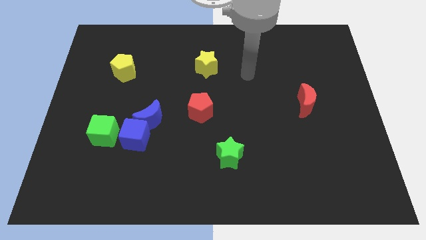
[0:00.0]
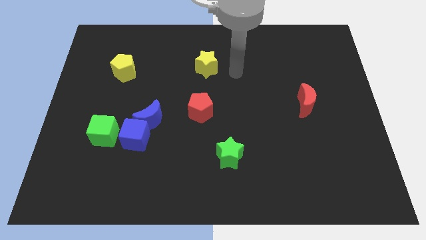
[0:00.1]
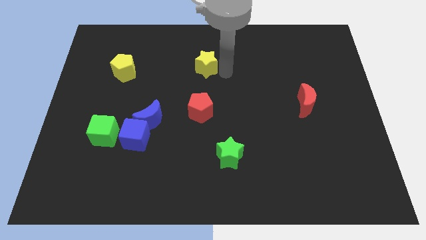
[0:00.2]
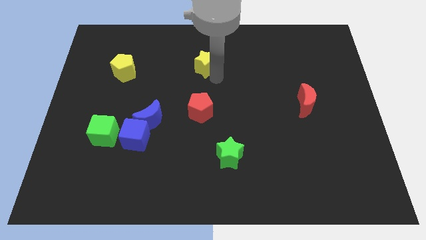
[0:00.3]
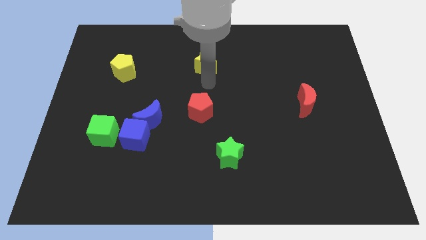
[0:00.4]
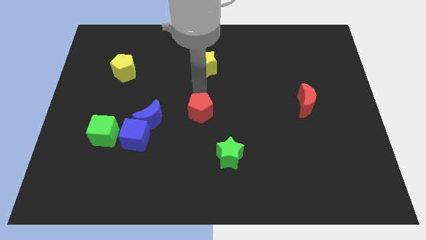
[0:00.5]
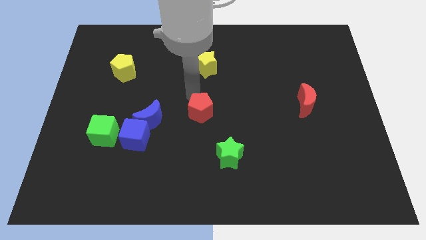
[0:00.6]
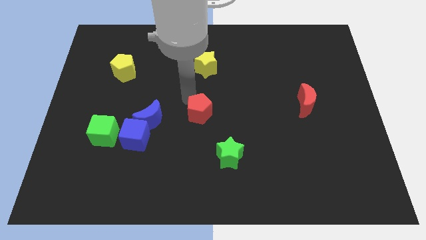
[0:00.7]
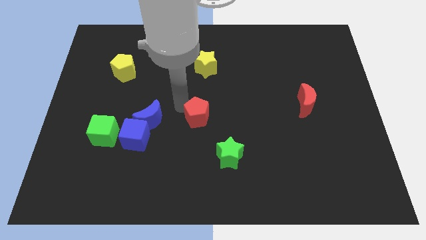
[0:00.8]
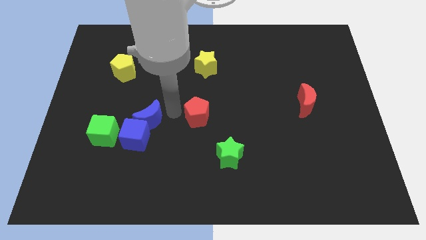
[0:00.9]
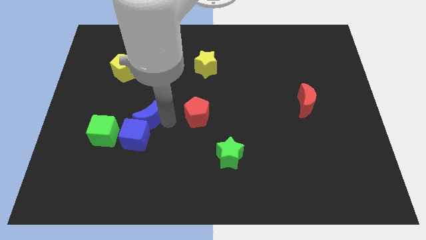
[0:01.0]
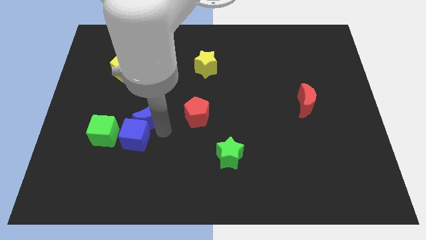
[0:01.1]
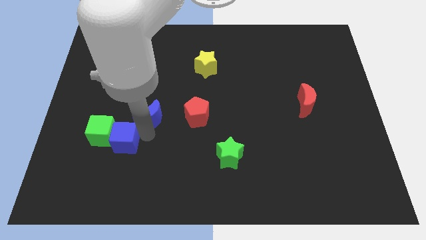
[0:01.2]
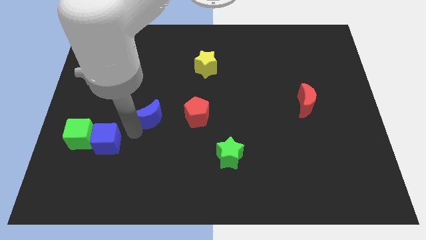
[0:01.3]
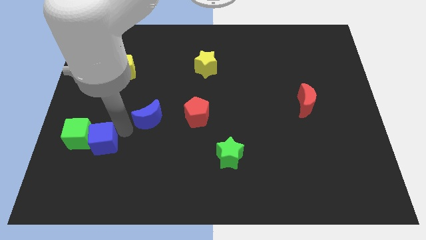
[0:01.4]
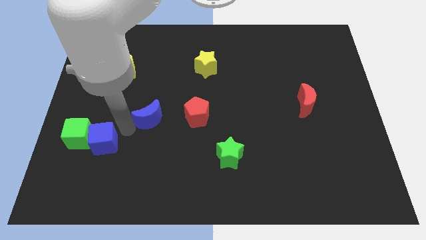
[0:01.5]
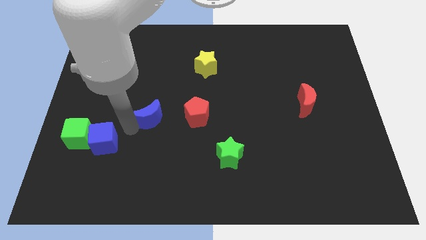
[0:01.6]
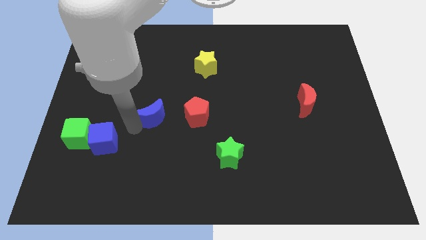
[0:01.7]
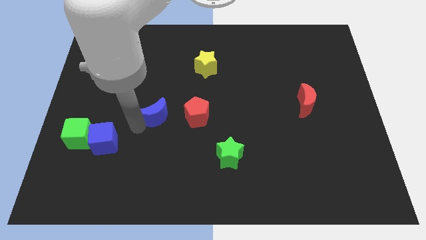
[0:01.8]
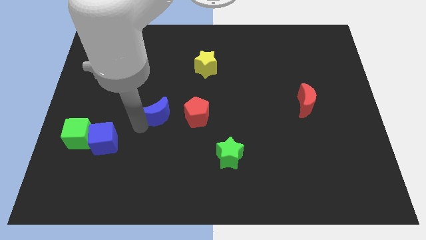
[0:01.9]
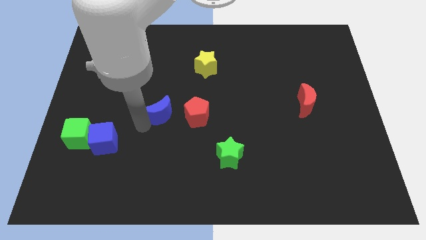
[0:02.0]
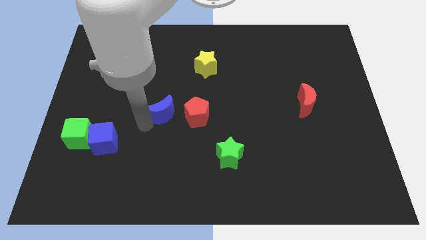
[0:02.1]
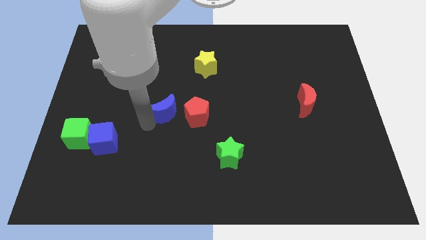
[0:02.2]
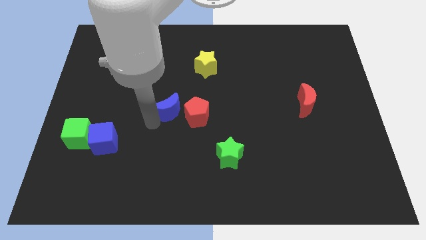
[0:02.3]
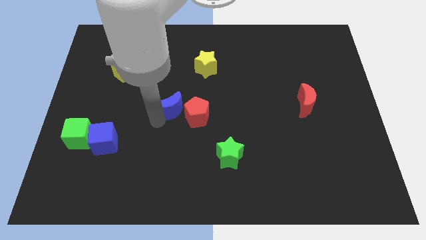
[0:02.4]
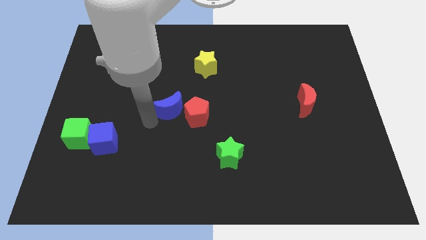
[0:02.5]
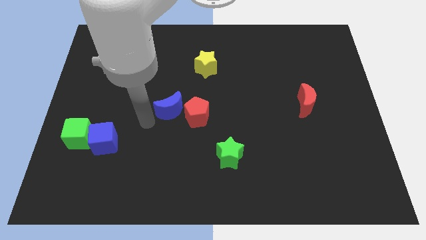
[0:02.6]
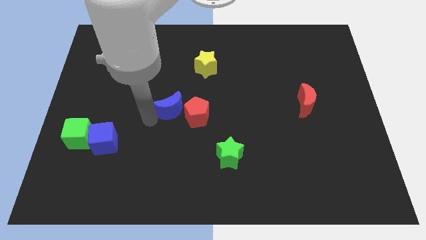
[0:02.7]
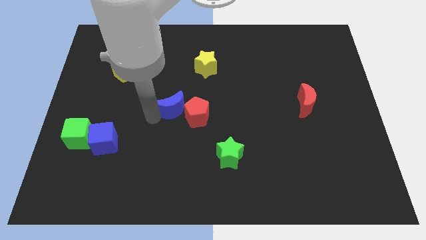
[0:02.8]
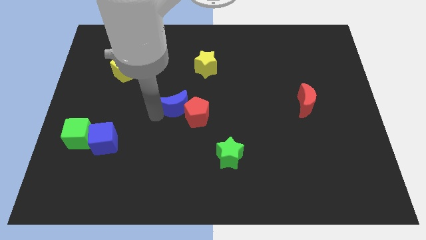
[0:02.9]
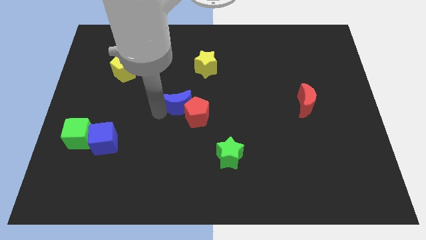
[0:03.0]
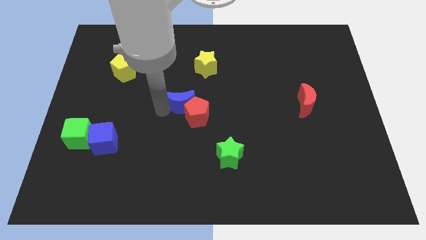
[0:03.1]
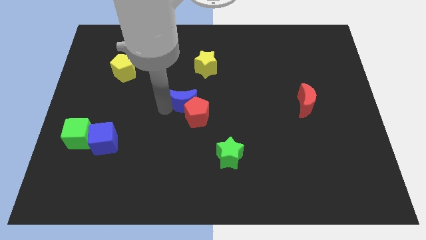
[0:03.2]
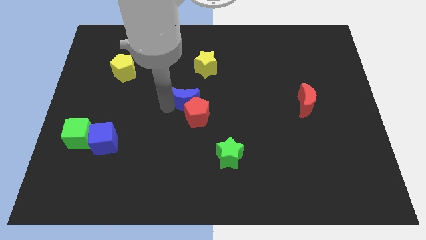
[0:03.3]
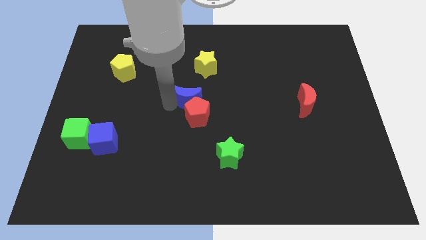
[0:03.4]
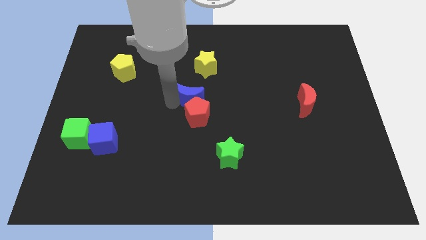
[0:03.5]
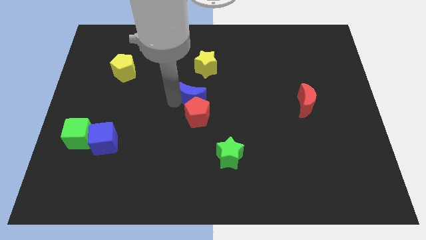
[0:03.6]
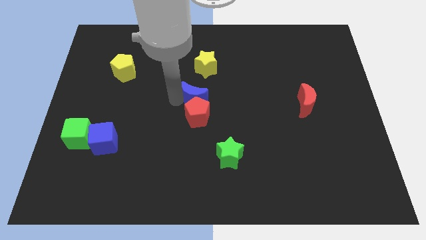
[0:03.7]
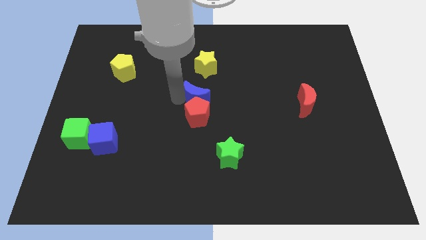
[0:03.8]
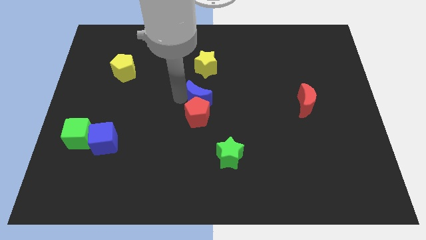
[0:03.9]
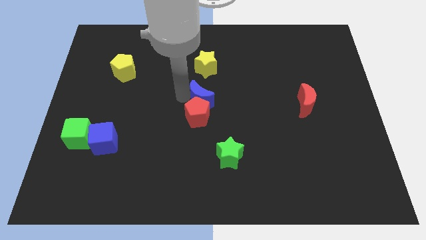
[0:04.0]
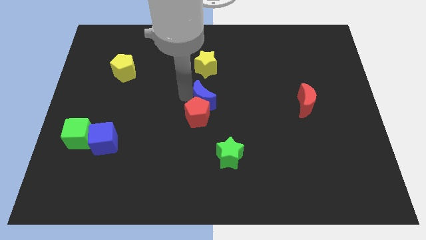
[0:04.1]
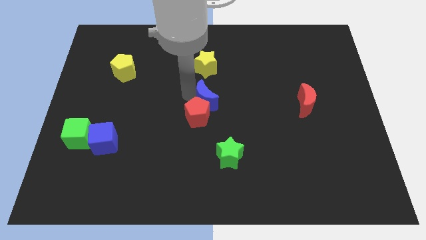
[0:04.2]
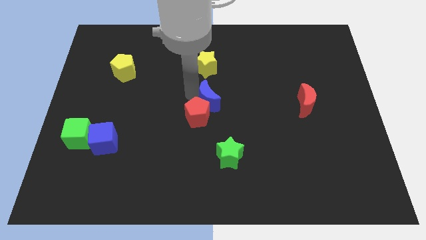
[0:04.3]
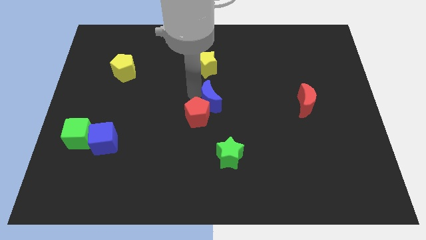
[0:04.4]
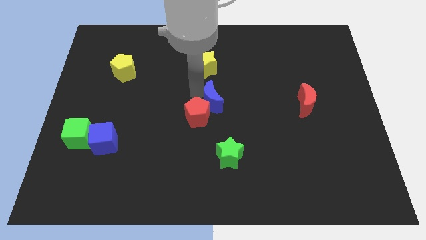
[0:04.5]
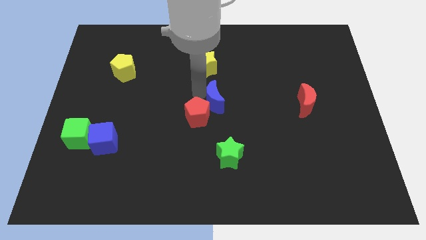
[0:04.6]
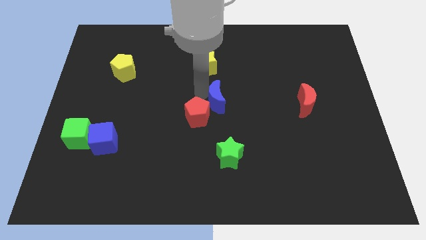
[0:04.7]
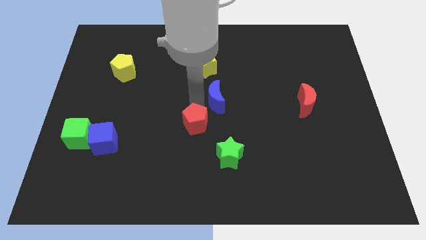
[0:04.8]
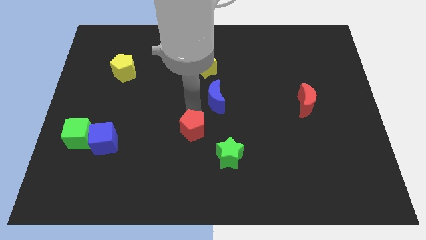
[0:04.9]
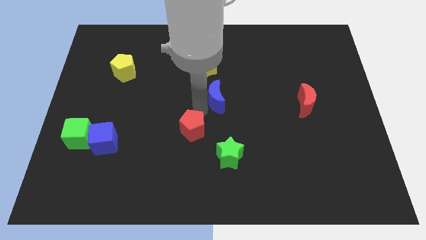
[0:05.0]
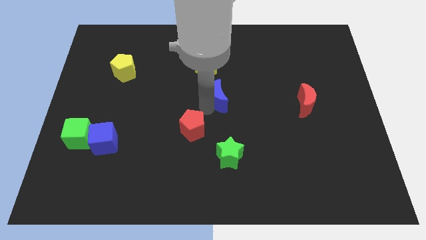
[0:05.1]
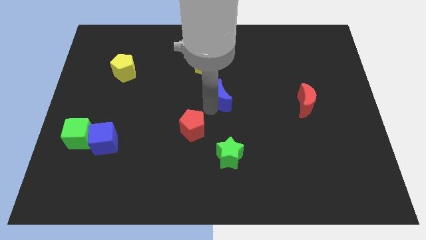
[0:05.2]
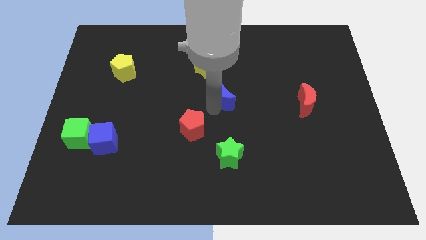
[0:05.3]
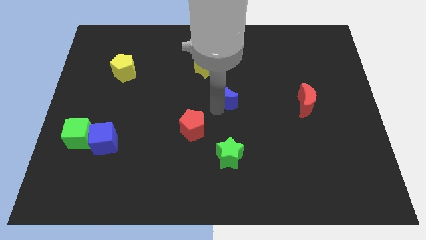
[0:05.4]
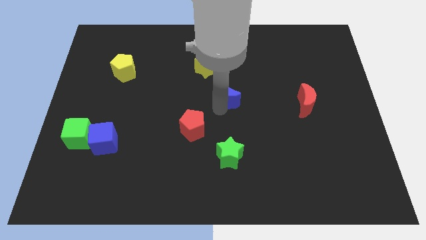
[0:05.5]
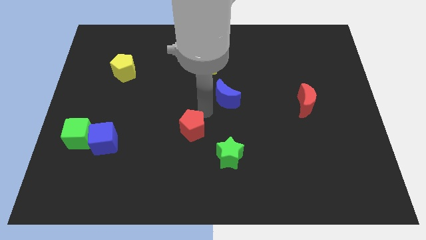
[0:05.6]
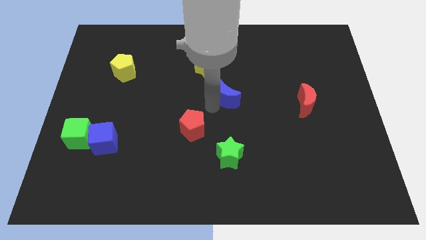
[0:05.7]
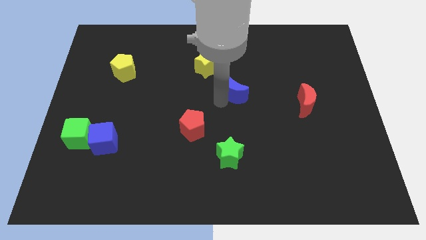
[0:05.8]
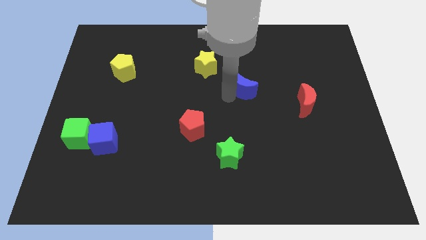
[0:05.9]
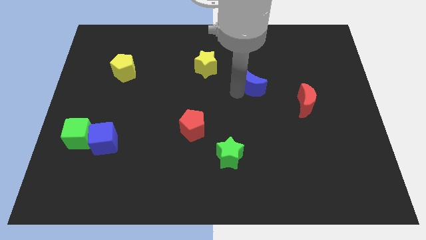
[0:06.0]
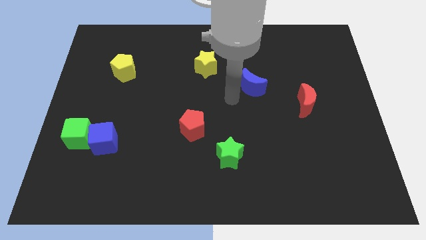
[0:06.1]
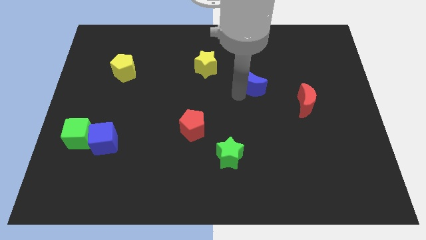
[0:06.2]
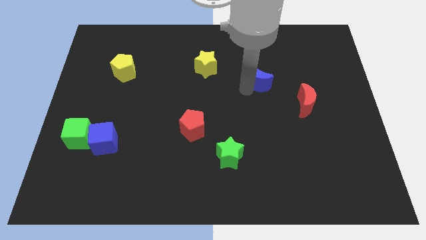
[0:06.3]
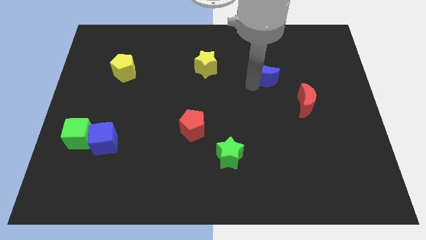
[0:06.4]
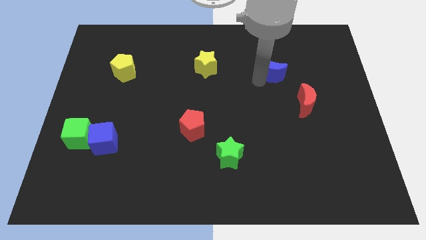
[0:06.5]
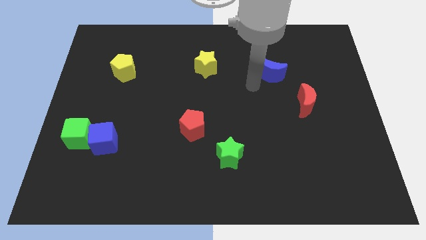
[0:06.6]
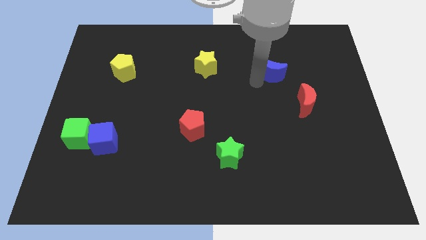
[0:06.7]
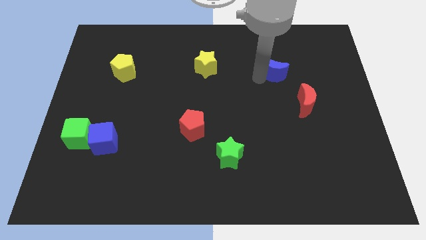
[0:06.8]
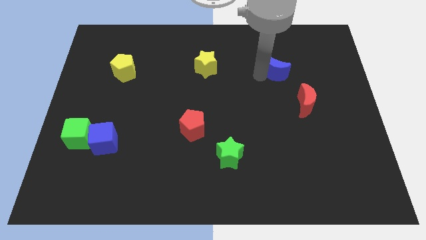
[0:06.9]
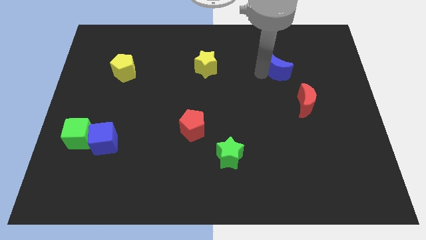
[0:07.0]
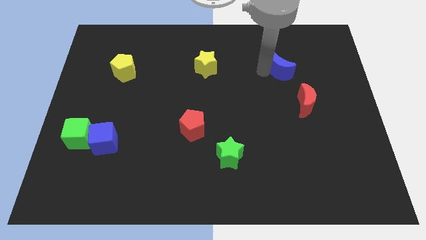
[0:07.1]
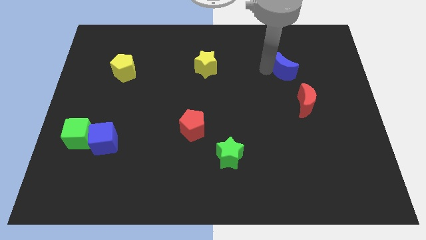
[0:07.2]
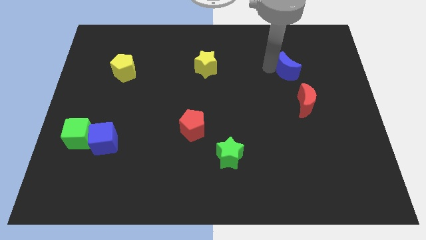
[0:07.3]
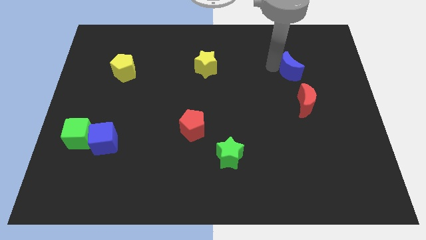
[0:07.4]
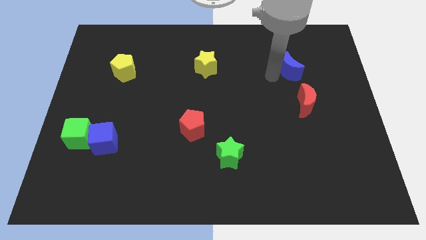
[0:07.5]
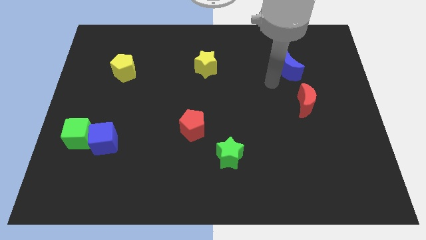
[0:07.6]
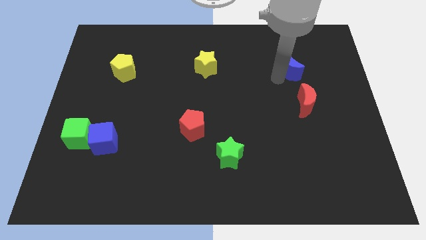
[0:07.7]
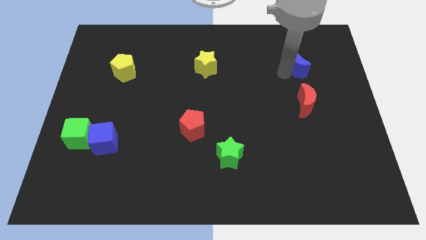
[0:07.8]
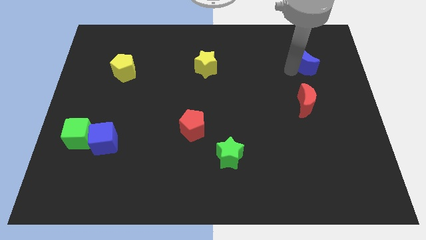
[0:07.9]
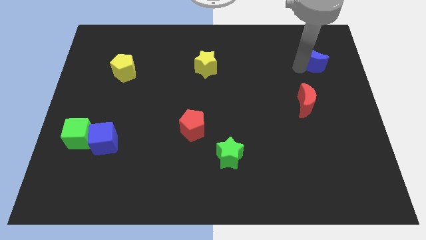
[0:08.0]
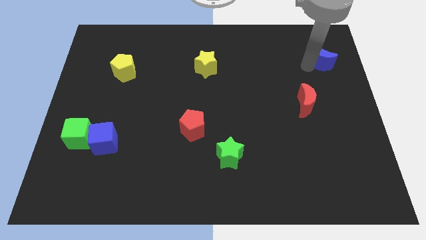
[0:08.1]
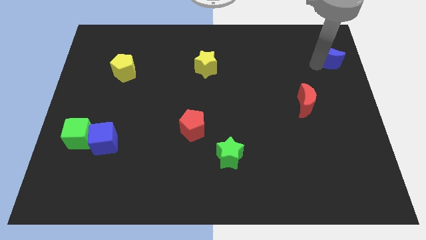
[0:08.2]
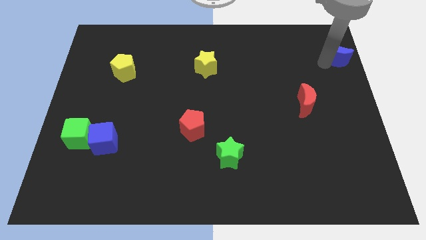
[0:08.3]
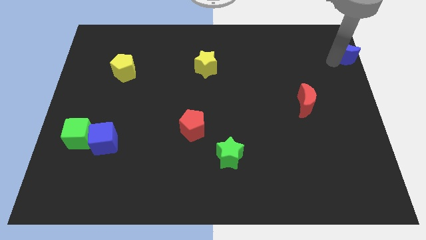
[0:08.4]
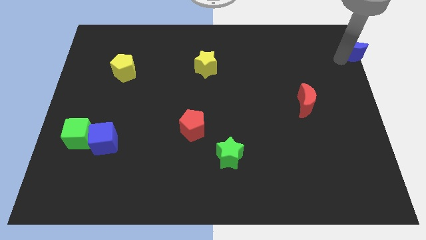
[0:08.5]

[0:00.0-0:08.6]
move the blue moon to the top right corner
